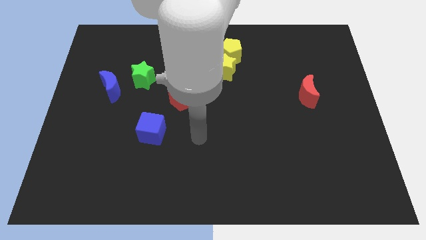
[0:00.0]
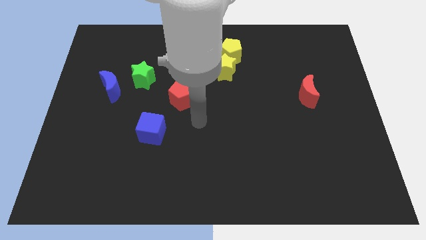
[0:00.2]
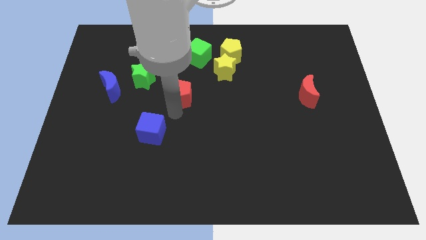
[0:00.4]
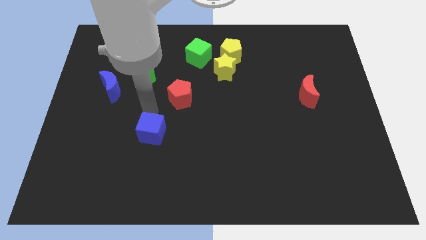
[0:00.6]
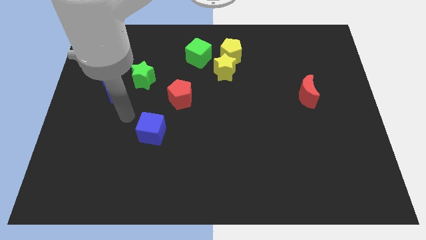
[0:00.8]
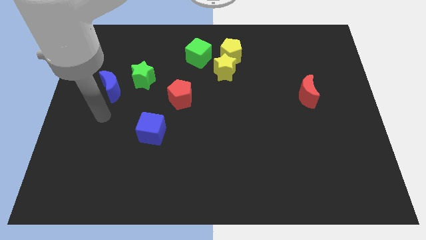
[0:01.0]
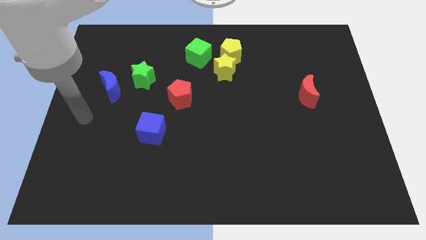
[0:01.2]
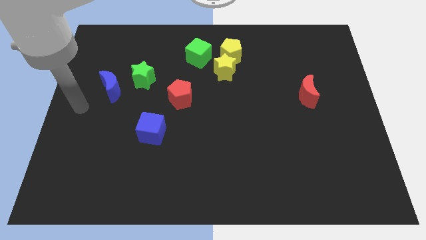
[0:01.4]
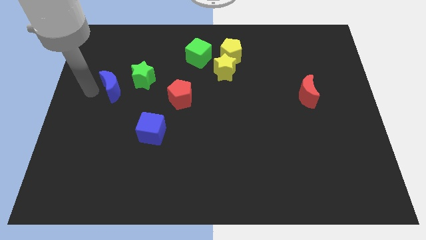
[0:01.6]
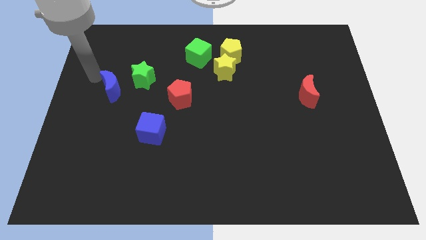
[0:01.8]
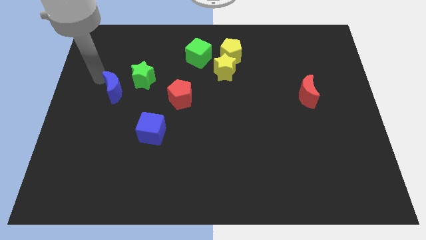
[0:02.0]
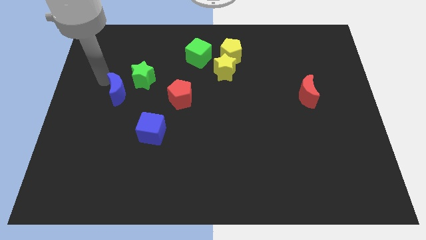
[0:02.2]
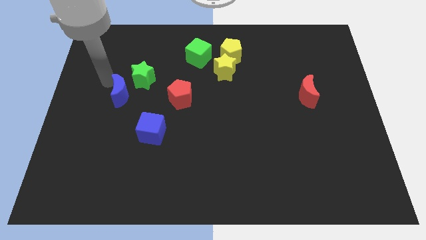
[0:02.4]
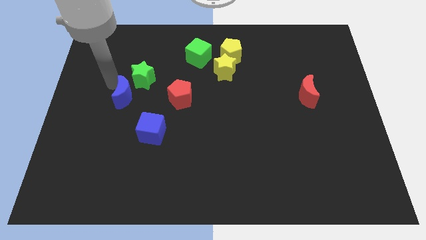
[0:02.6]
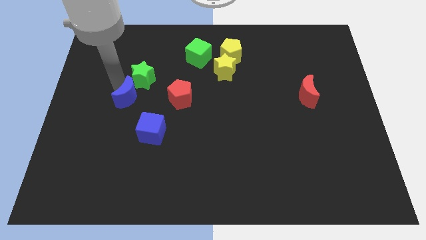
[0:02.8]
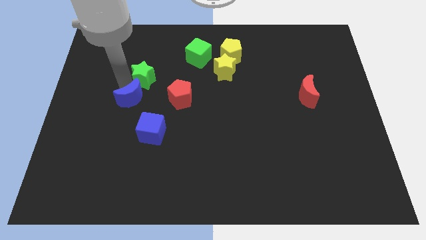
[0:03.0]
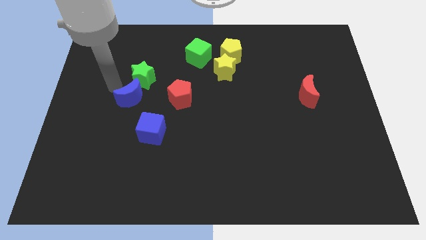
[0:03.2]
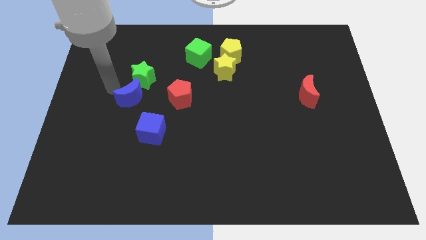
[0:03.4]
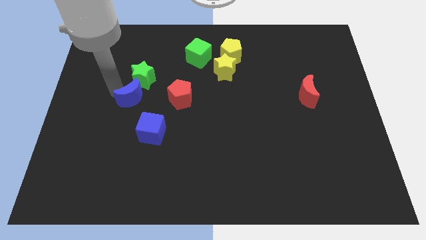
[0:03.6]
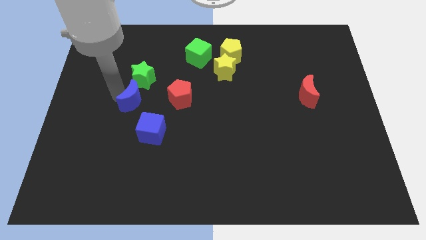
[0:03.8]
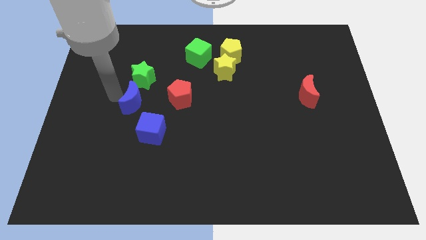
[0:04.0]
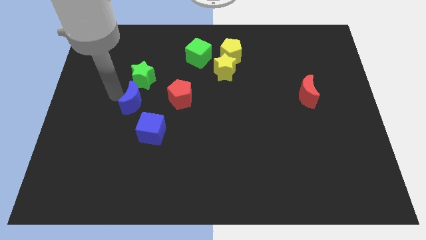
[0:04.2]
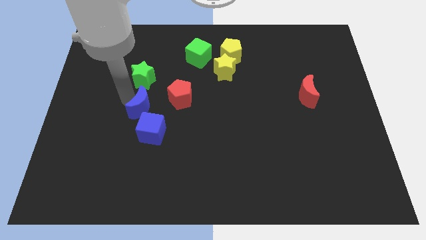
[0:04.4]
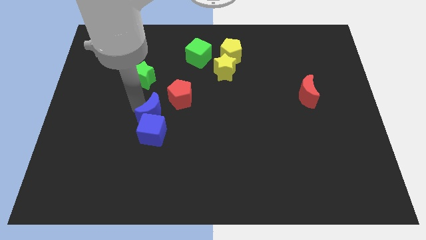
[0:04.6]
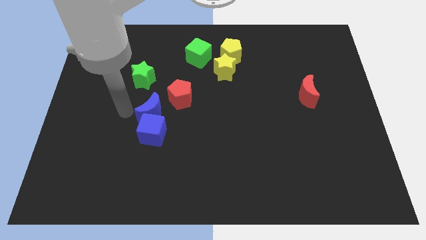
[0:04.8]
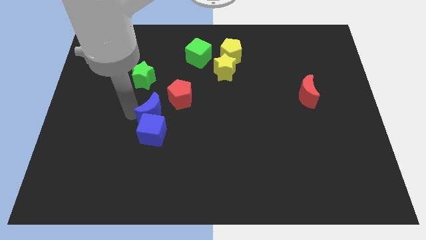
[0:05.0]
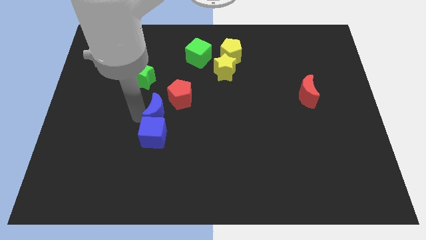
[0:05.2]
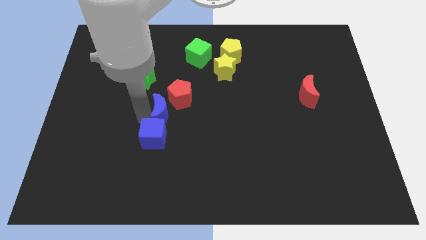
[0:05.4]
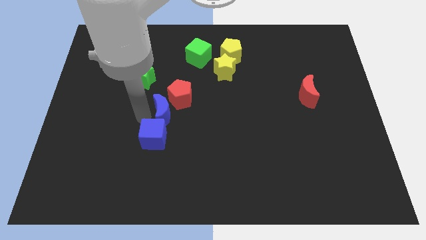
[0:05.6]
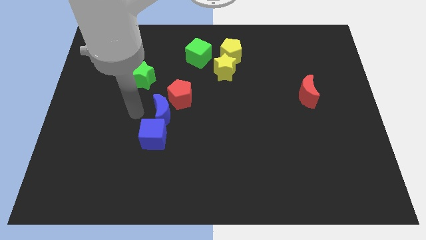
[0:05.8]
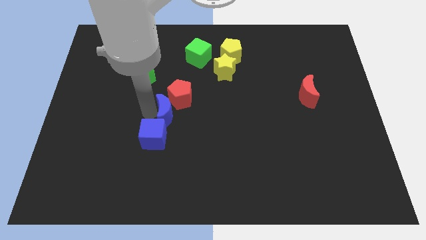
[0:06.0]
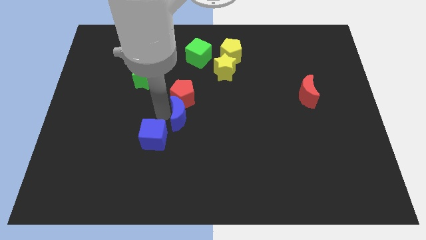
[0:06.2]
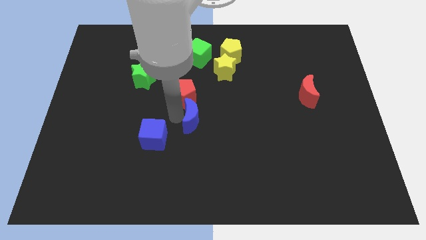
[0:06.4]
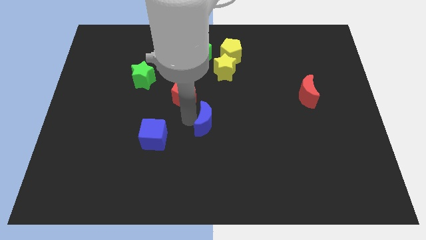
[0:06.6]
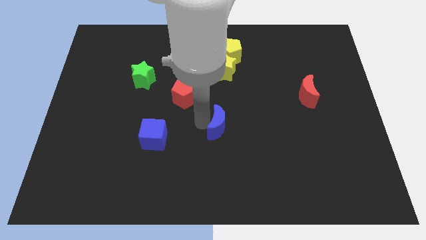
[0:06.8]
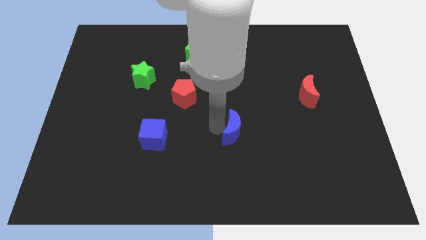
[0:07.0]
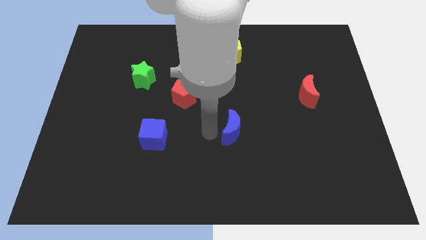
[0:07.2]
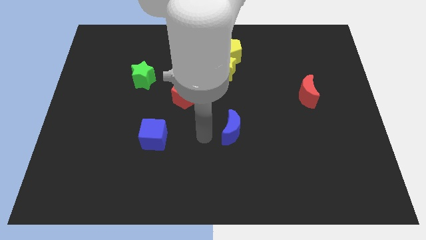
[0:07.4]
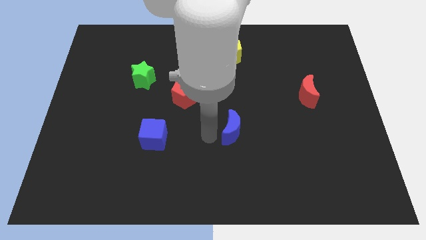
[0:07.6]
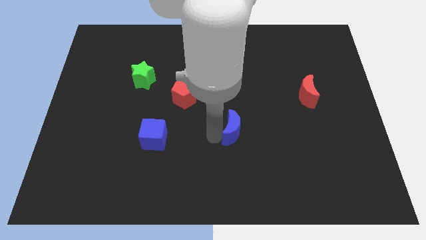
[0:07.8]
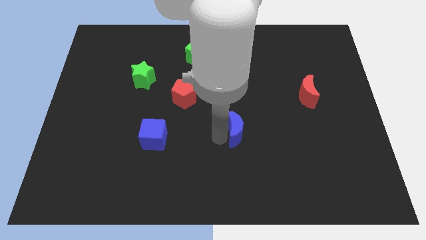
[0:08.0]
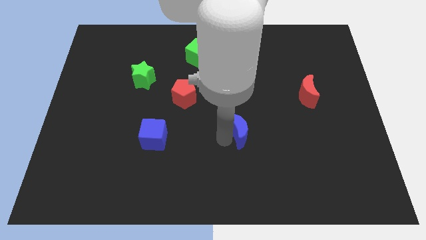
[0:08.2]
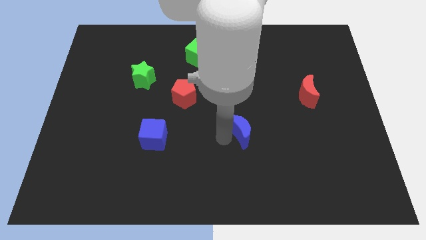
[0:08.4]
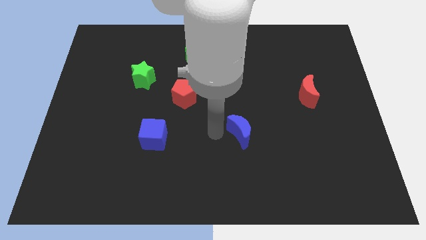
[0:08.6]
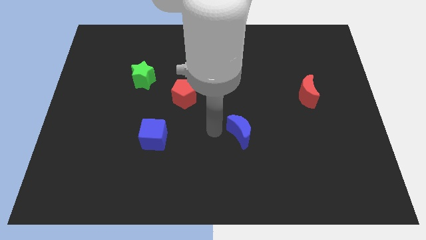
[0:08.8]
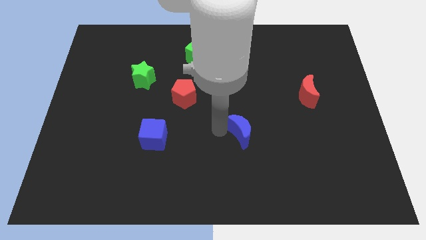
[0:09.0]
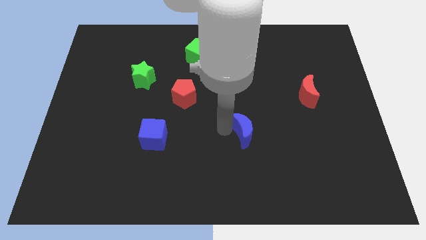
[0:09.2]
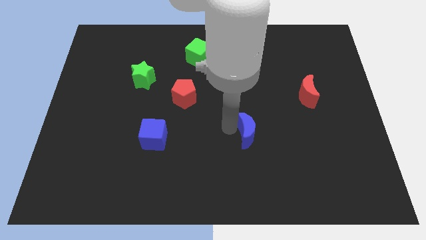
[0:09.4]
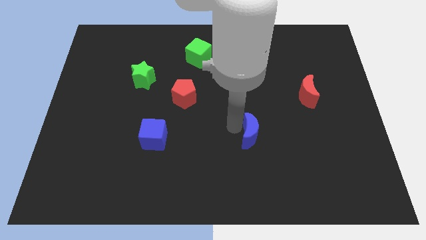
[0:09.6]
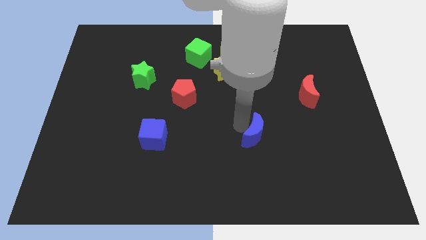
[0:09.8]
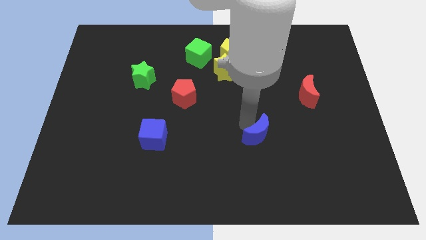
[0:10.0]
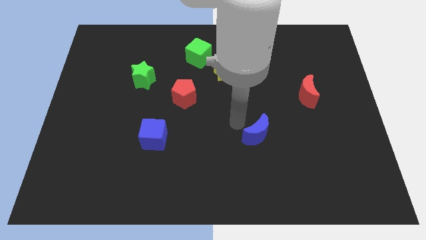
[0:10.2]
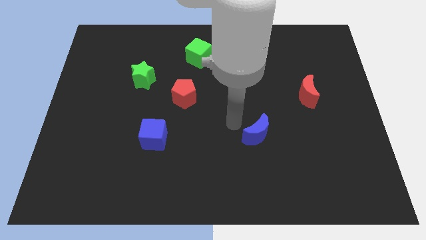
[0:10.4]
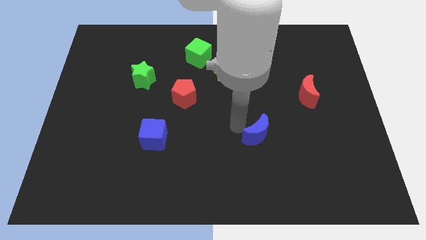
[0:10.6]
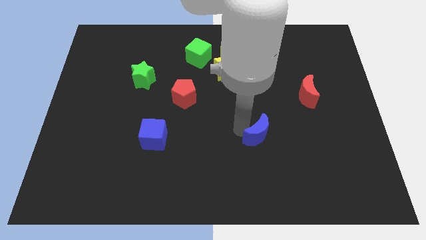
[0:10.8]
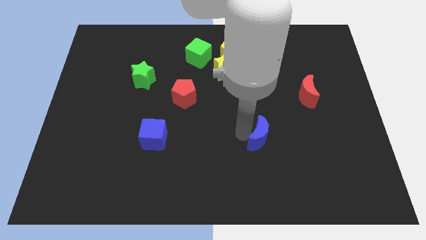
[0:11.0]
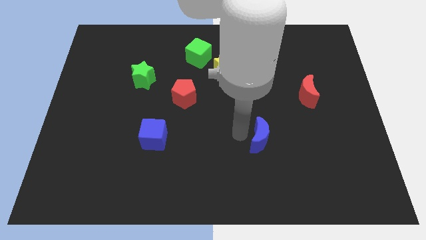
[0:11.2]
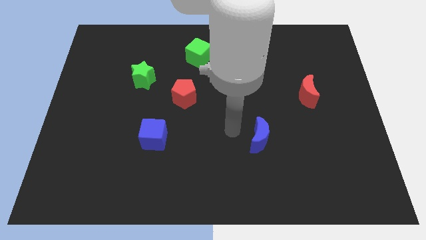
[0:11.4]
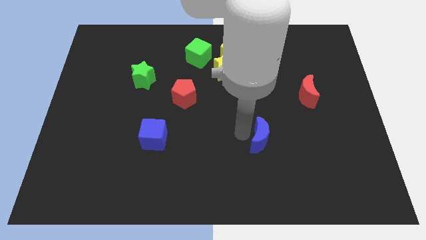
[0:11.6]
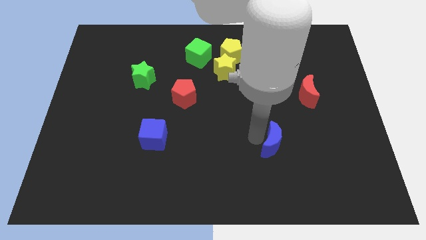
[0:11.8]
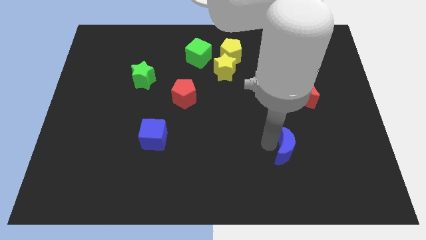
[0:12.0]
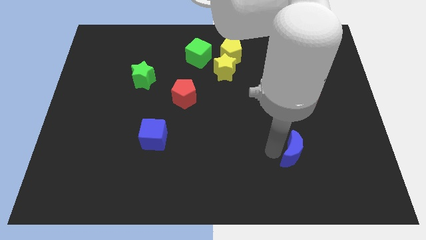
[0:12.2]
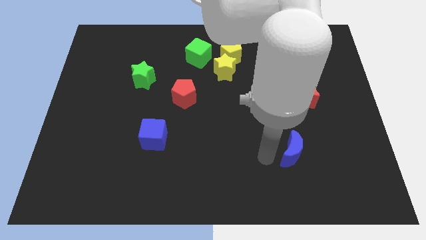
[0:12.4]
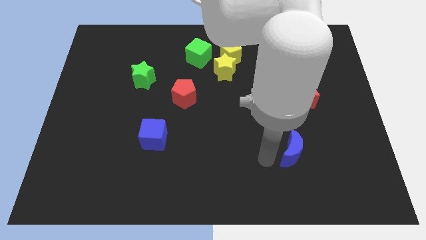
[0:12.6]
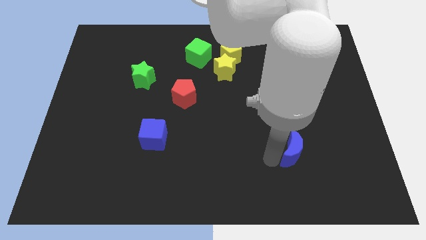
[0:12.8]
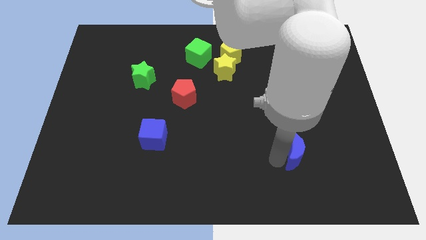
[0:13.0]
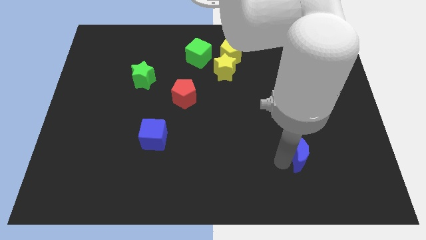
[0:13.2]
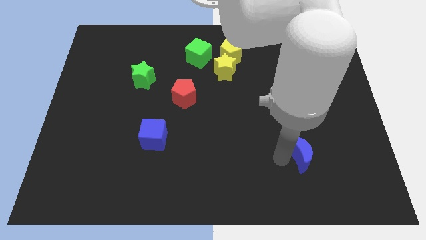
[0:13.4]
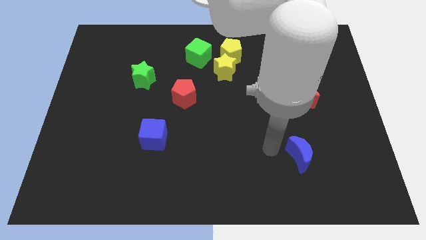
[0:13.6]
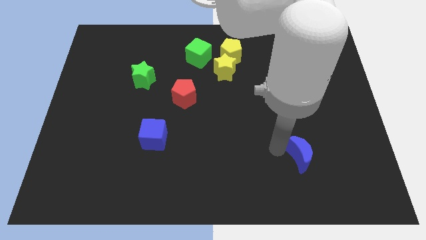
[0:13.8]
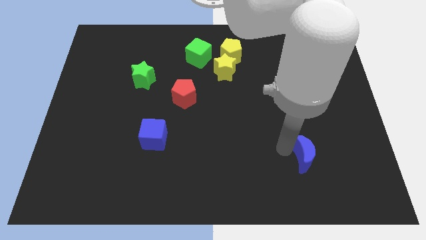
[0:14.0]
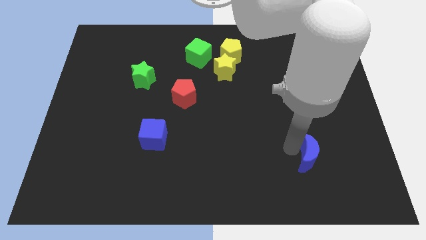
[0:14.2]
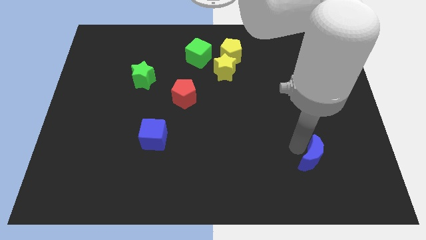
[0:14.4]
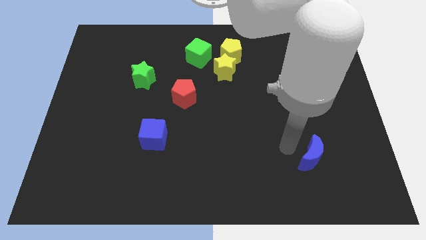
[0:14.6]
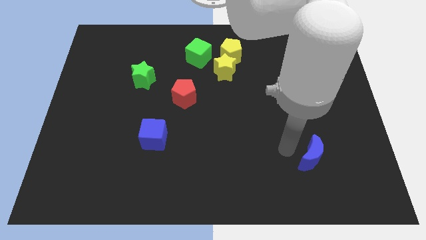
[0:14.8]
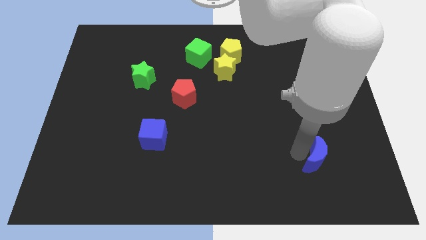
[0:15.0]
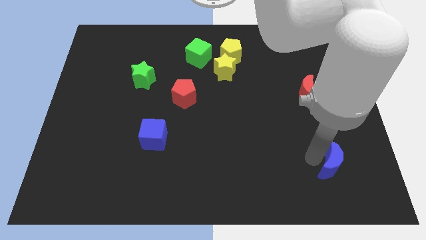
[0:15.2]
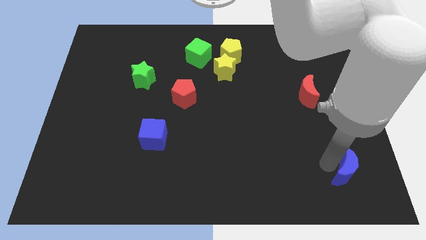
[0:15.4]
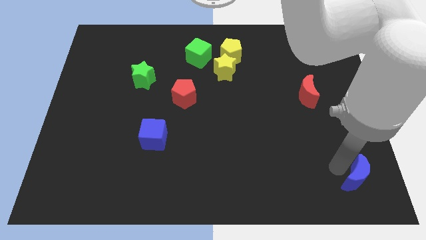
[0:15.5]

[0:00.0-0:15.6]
push the blue moon to the bottom right of the board
